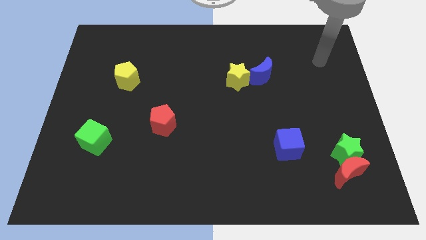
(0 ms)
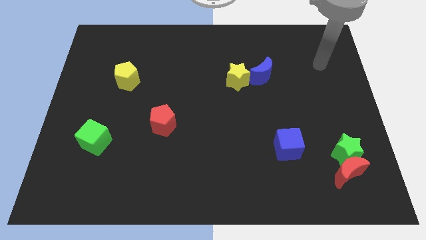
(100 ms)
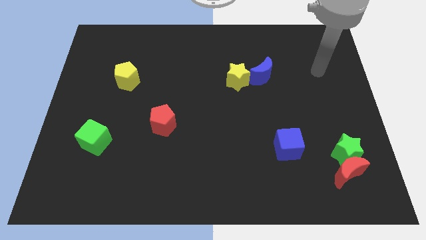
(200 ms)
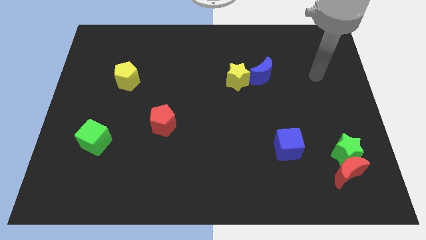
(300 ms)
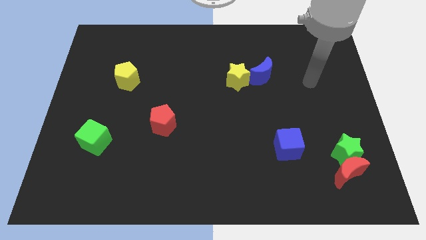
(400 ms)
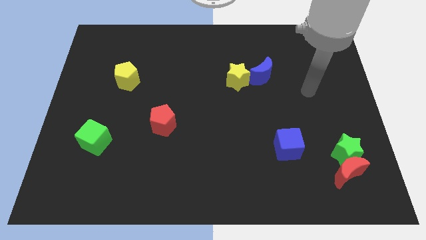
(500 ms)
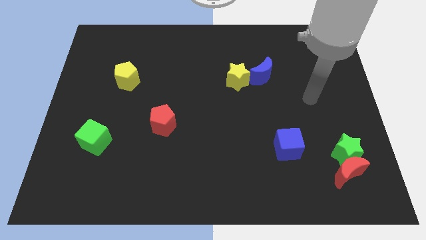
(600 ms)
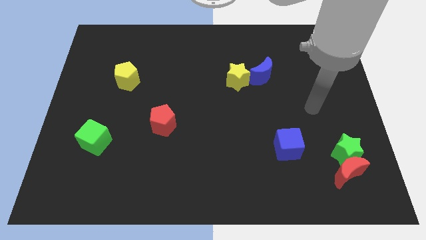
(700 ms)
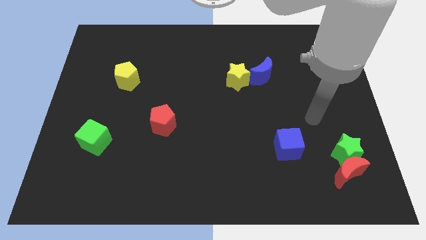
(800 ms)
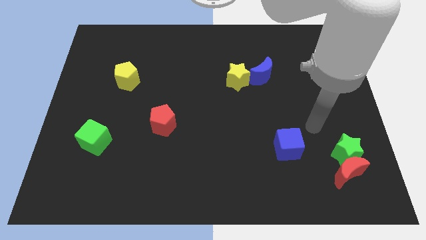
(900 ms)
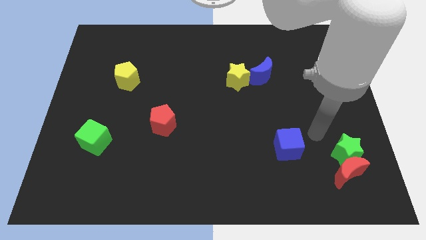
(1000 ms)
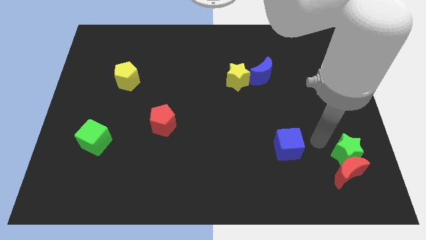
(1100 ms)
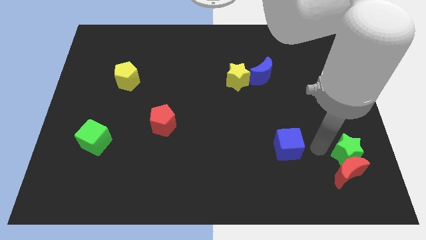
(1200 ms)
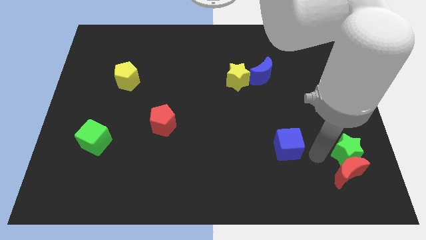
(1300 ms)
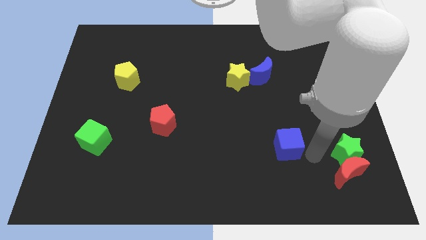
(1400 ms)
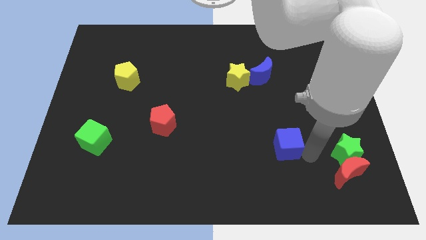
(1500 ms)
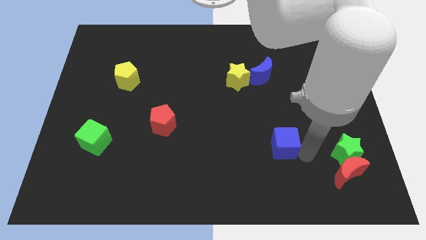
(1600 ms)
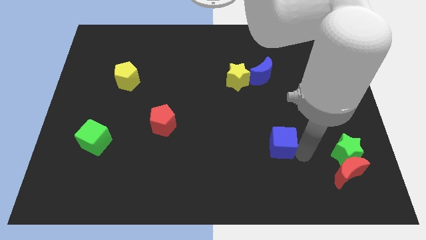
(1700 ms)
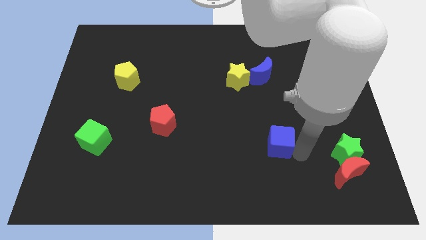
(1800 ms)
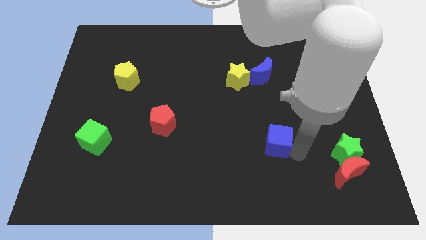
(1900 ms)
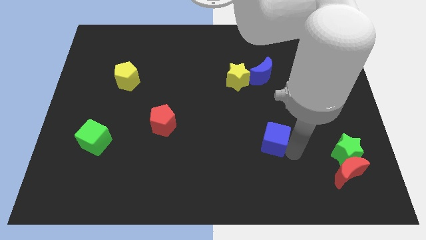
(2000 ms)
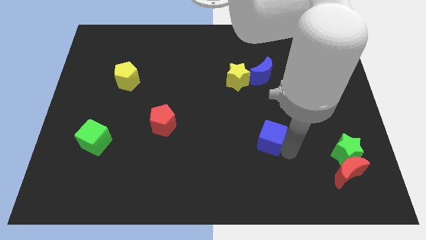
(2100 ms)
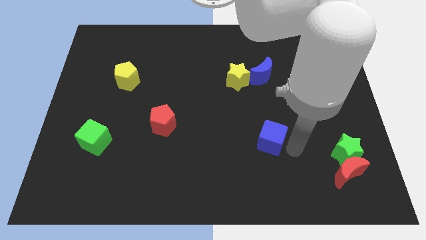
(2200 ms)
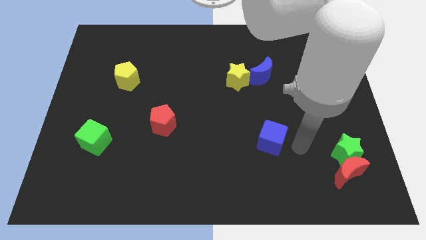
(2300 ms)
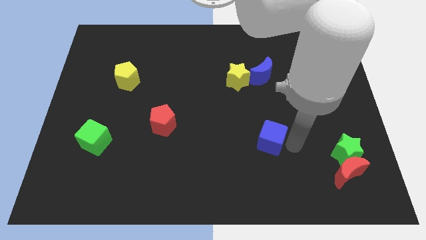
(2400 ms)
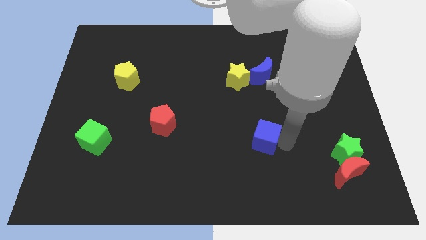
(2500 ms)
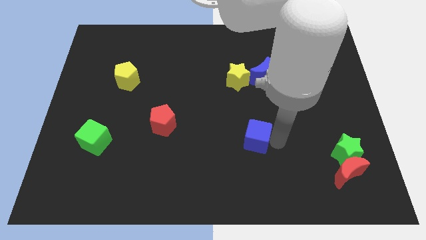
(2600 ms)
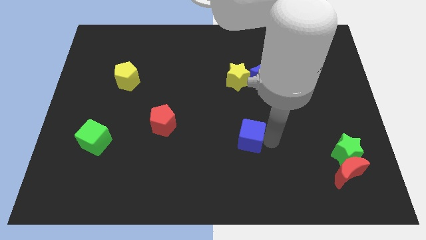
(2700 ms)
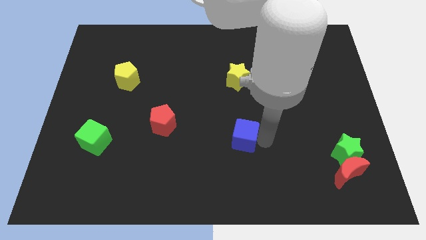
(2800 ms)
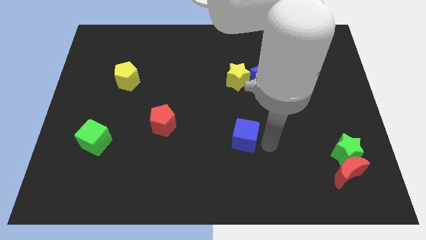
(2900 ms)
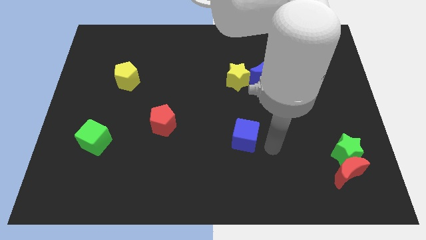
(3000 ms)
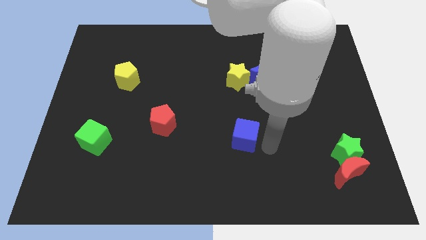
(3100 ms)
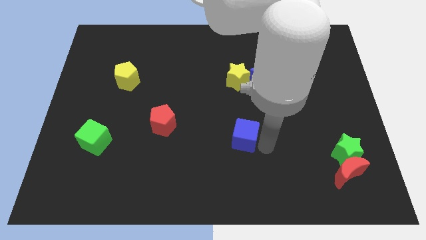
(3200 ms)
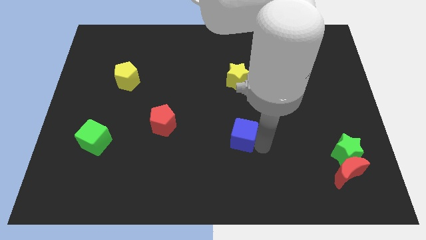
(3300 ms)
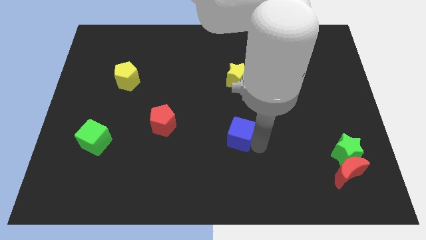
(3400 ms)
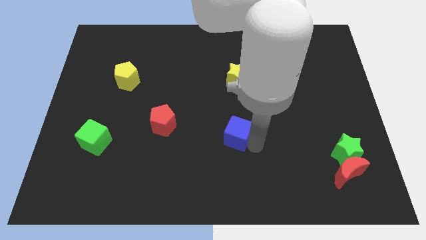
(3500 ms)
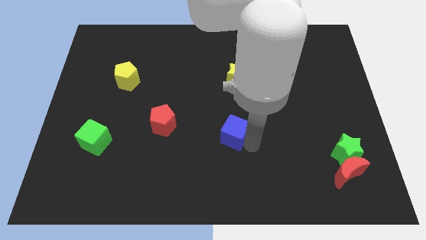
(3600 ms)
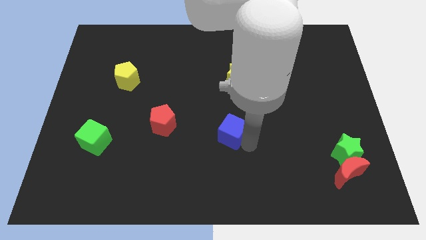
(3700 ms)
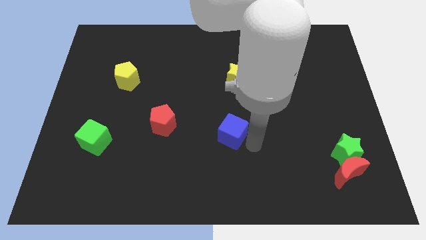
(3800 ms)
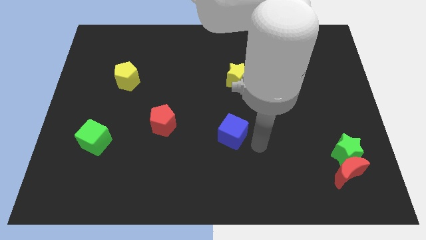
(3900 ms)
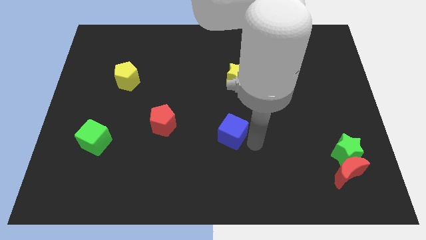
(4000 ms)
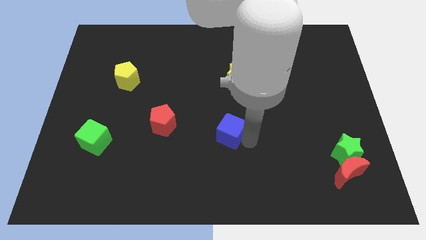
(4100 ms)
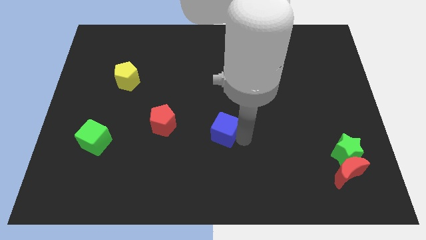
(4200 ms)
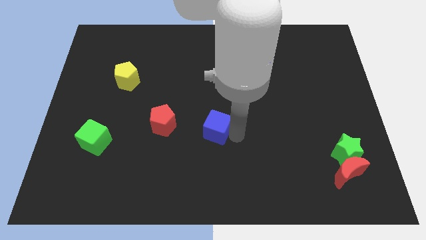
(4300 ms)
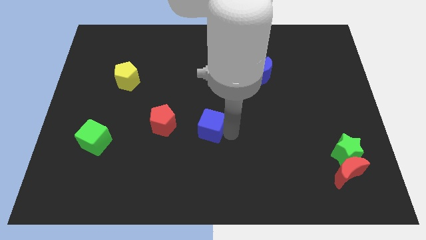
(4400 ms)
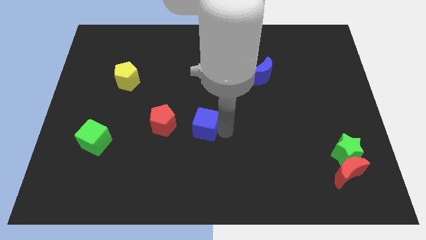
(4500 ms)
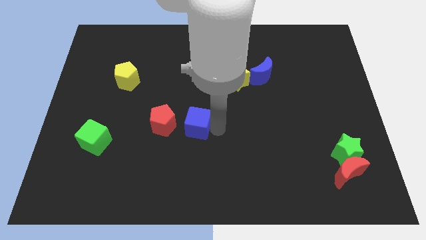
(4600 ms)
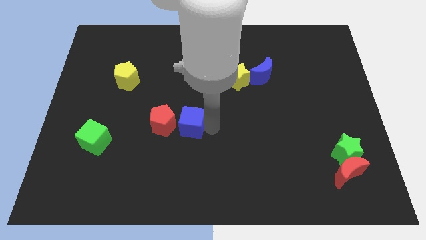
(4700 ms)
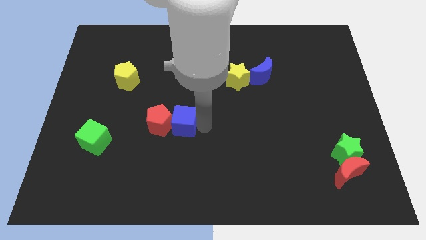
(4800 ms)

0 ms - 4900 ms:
push the blue cube to the red pentagon

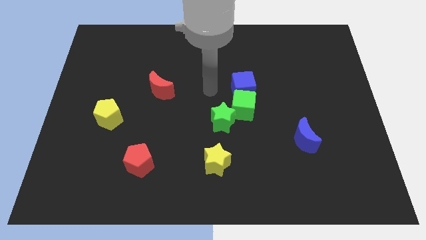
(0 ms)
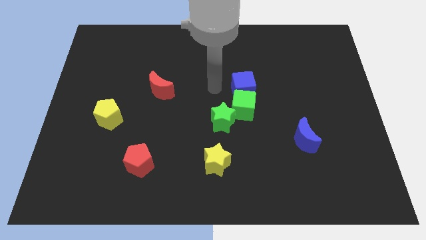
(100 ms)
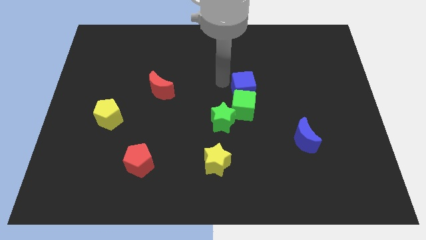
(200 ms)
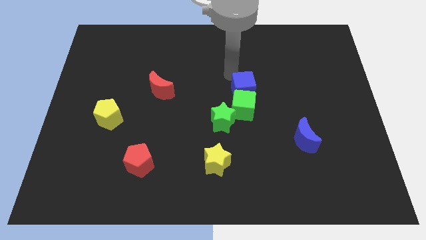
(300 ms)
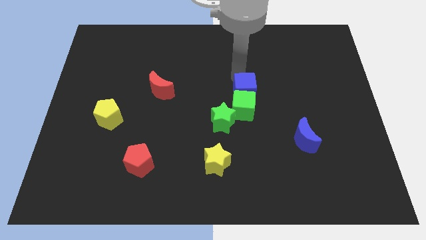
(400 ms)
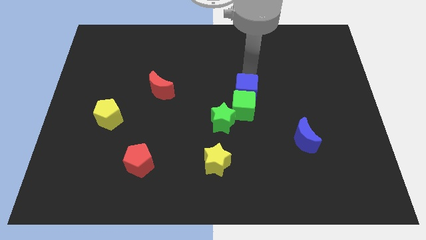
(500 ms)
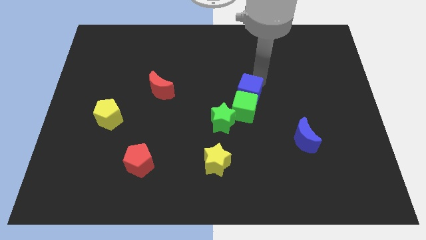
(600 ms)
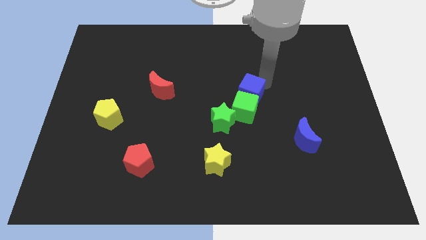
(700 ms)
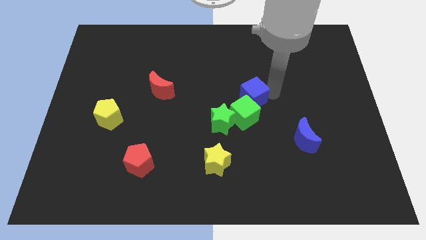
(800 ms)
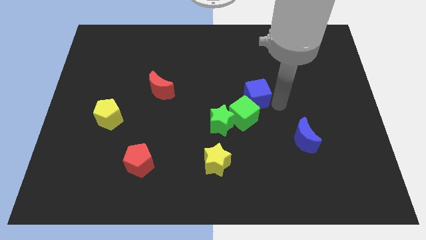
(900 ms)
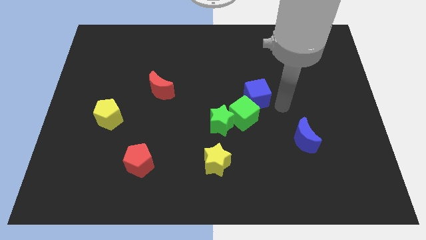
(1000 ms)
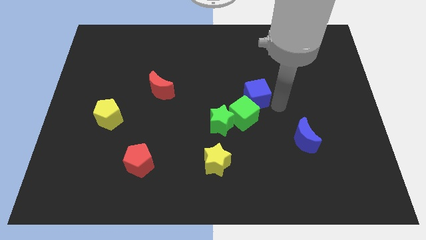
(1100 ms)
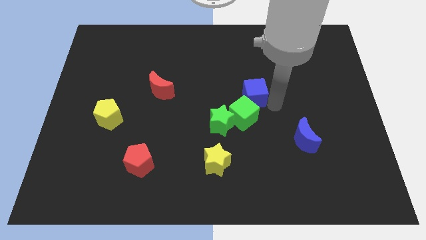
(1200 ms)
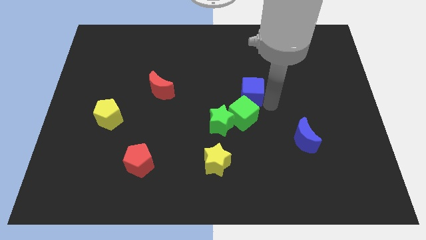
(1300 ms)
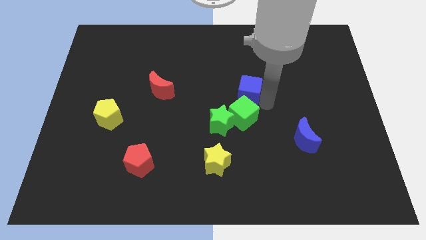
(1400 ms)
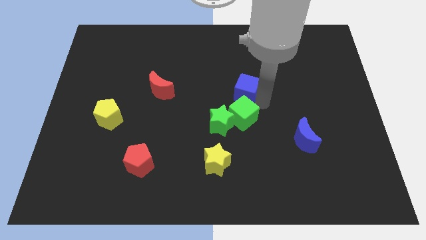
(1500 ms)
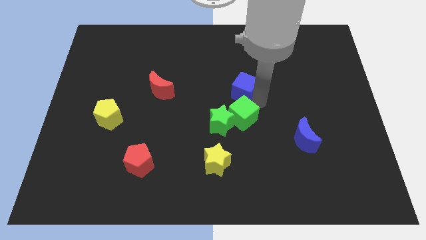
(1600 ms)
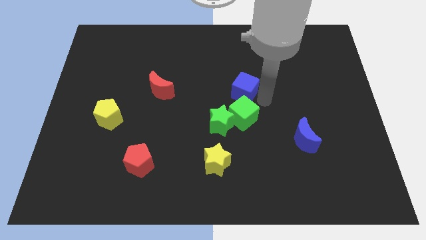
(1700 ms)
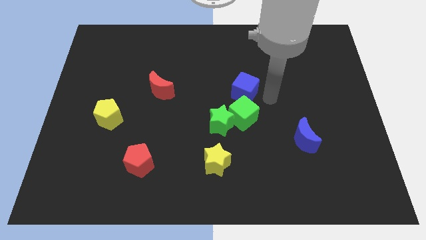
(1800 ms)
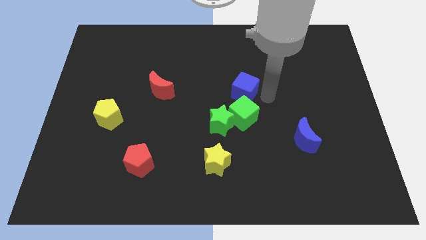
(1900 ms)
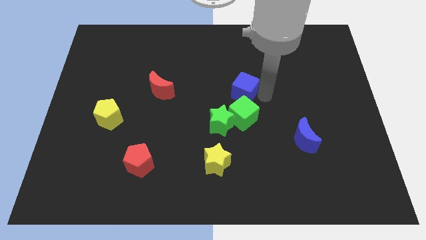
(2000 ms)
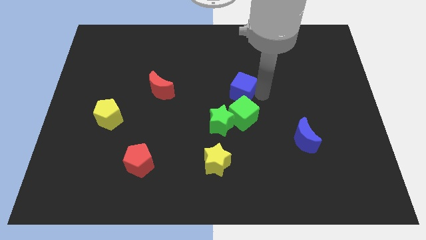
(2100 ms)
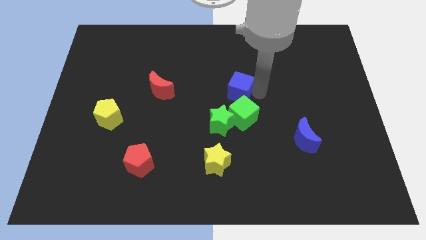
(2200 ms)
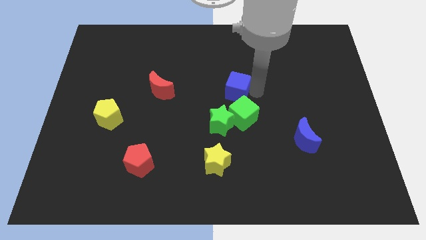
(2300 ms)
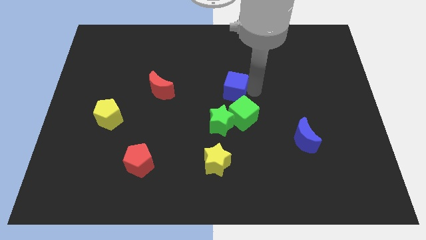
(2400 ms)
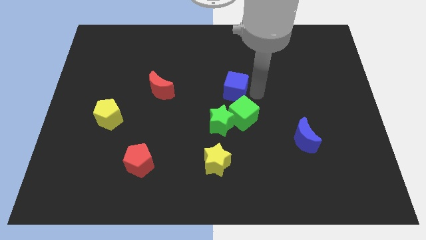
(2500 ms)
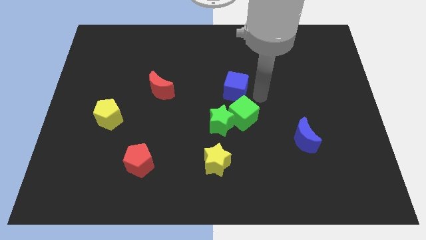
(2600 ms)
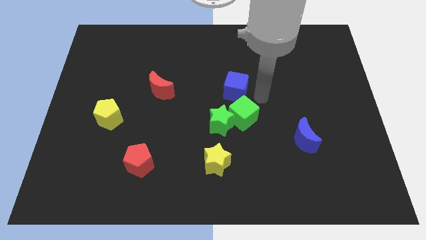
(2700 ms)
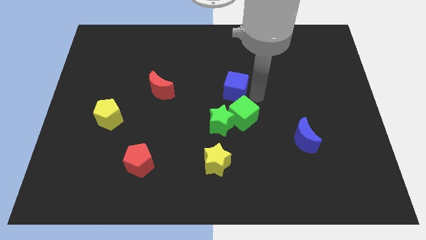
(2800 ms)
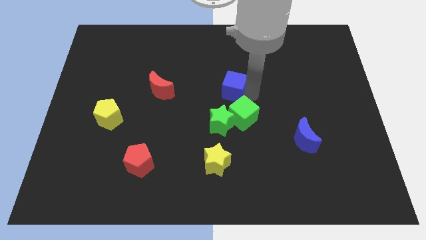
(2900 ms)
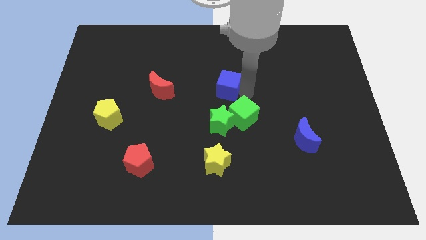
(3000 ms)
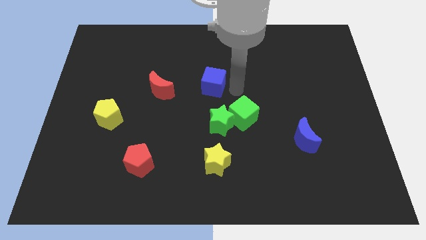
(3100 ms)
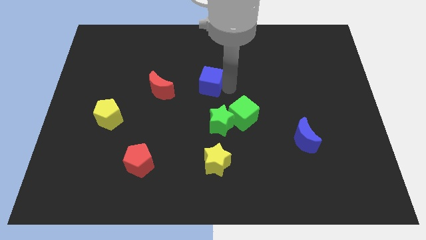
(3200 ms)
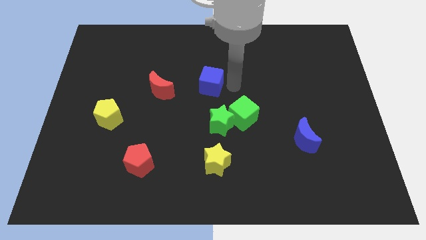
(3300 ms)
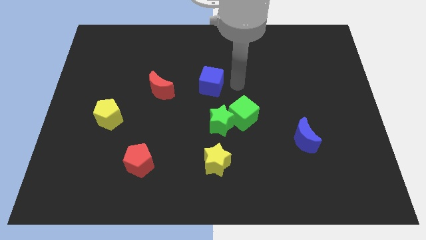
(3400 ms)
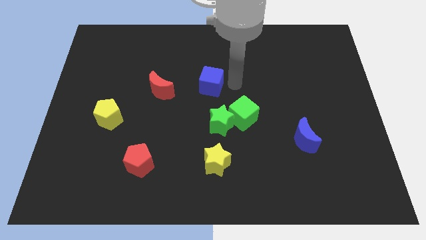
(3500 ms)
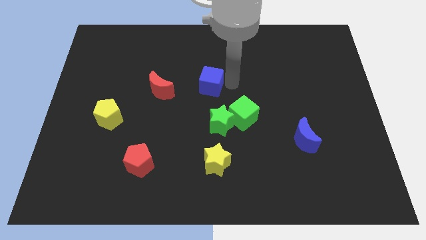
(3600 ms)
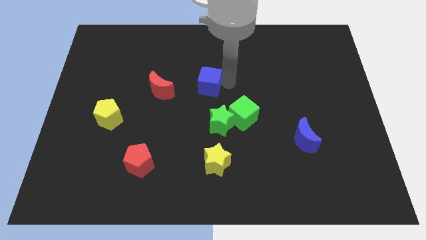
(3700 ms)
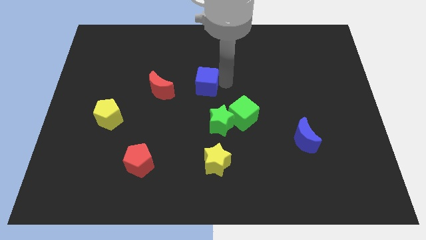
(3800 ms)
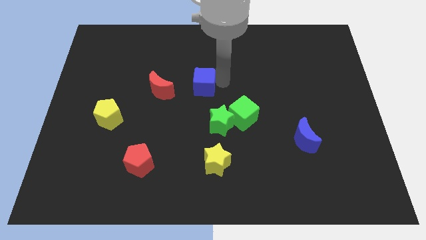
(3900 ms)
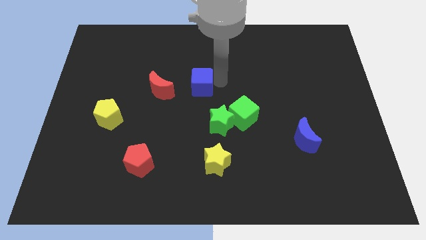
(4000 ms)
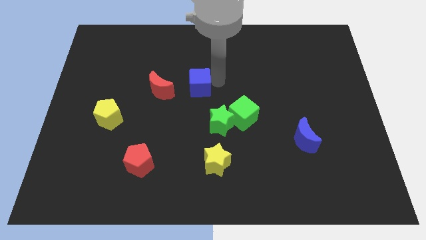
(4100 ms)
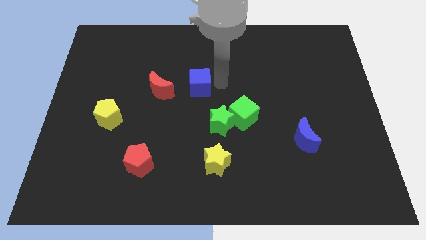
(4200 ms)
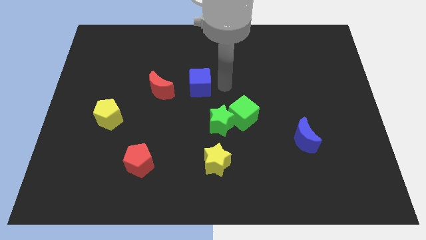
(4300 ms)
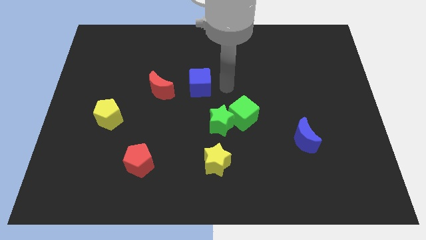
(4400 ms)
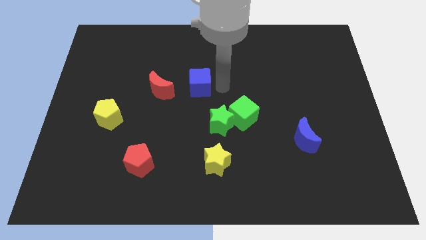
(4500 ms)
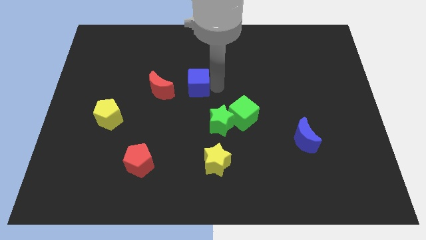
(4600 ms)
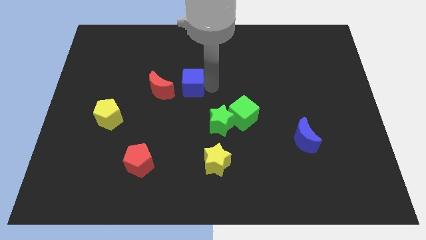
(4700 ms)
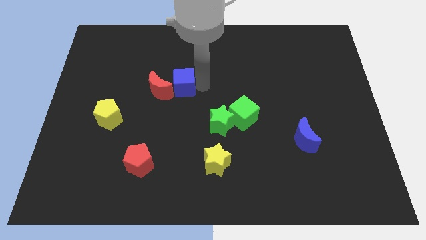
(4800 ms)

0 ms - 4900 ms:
move the blue cube close to the red moon
